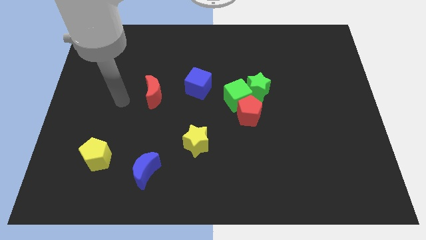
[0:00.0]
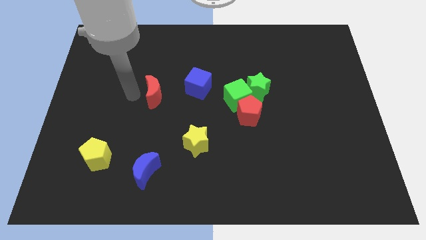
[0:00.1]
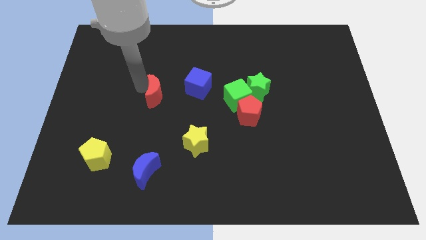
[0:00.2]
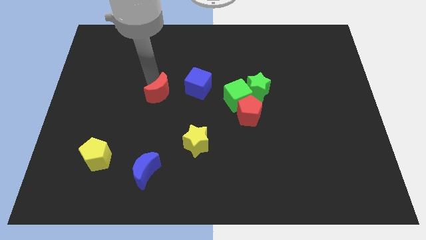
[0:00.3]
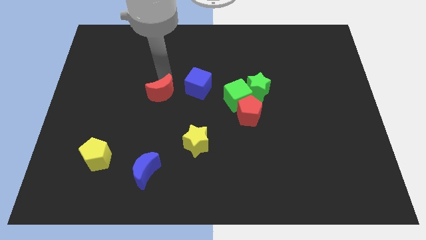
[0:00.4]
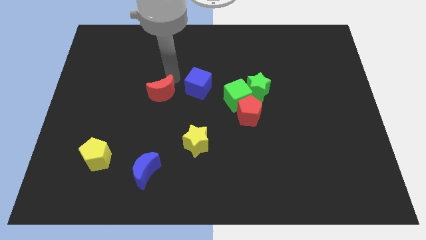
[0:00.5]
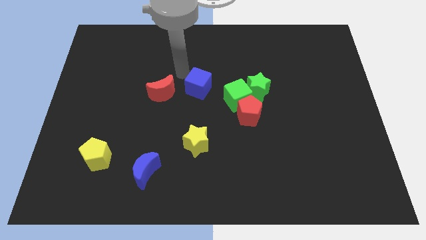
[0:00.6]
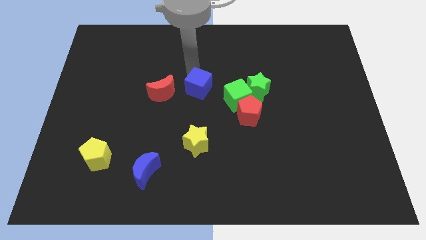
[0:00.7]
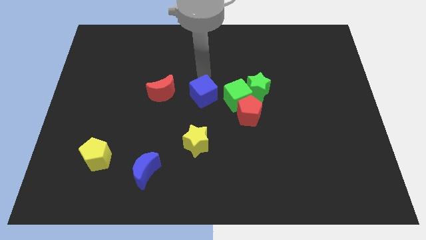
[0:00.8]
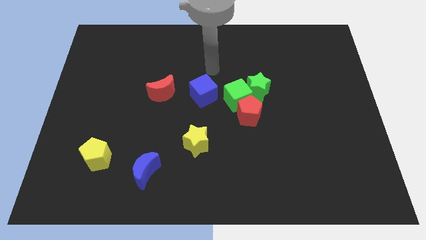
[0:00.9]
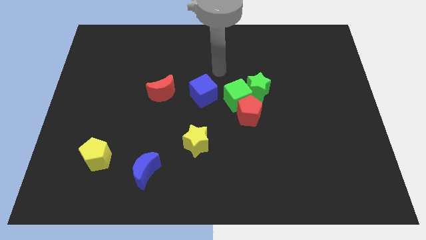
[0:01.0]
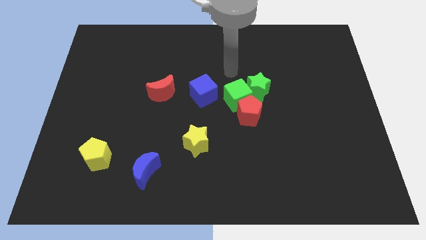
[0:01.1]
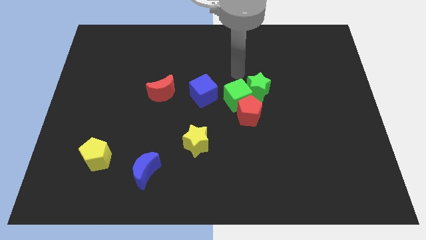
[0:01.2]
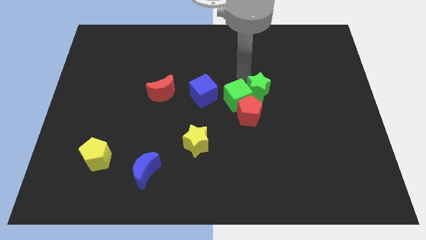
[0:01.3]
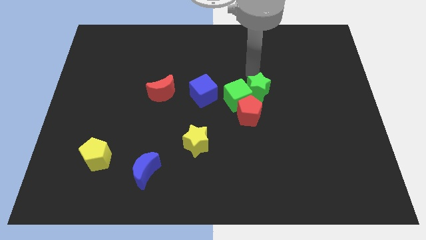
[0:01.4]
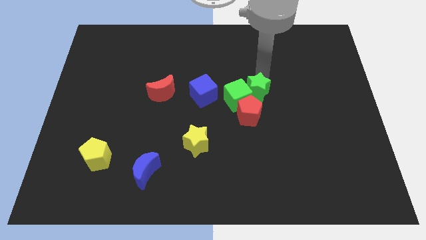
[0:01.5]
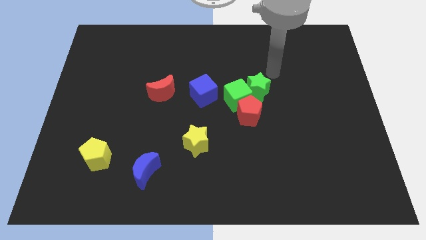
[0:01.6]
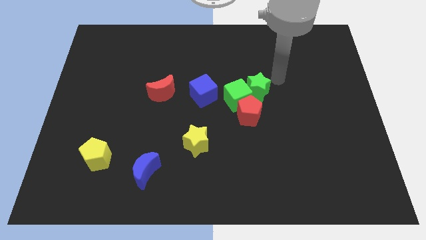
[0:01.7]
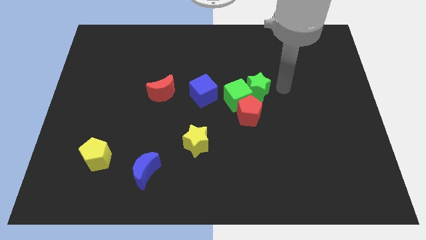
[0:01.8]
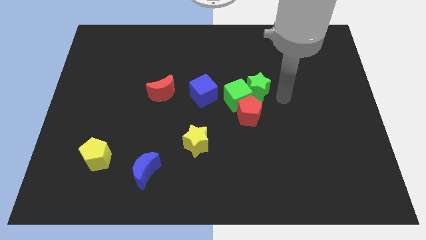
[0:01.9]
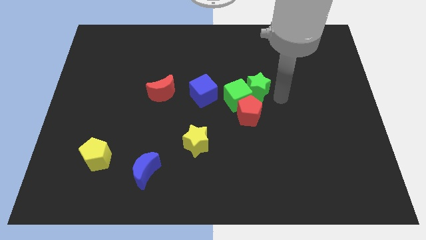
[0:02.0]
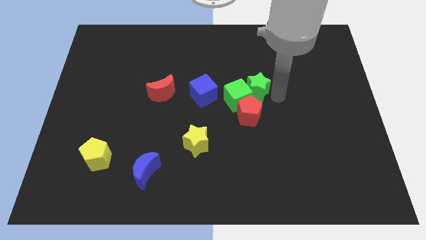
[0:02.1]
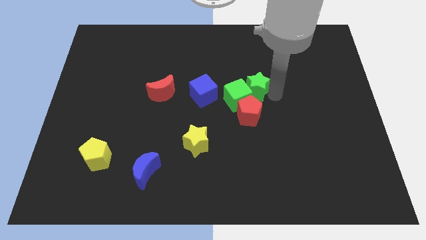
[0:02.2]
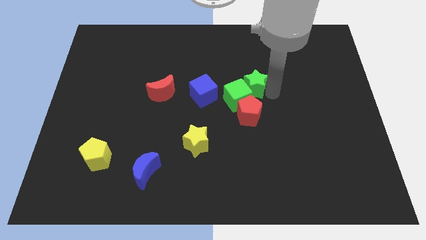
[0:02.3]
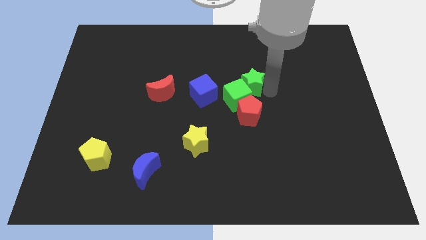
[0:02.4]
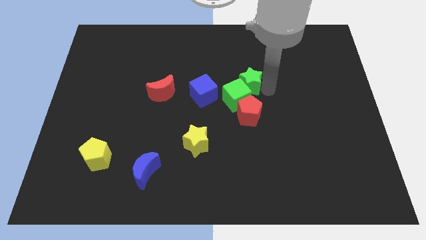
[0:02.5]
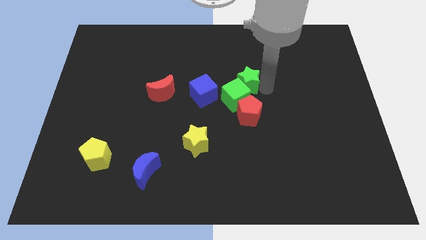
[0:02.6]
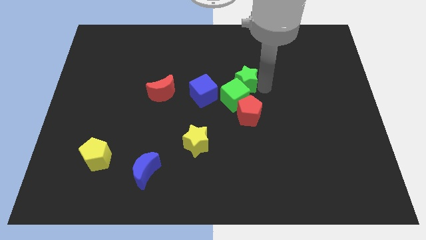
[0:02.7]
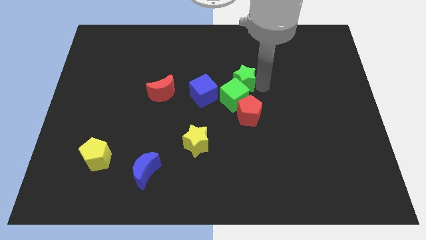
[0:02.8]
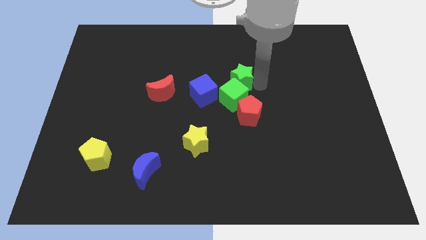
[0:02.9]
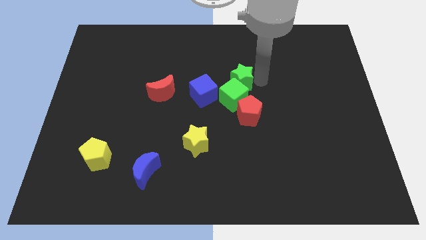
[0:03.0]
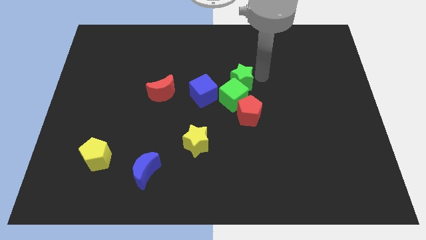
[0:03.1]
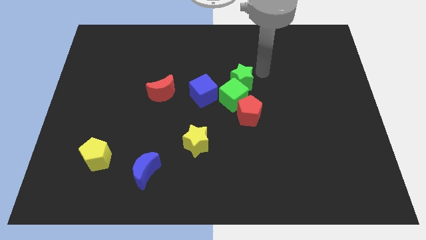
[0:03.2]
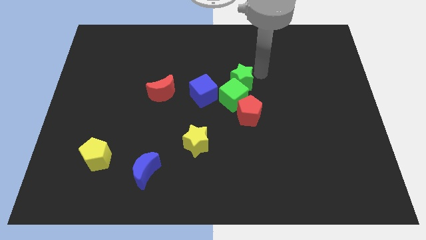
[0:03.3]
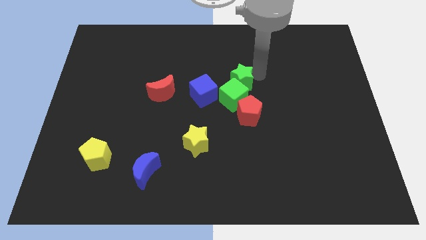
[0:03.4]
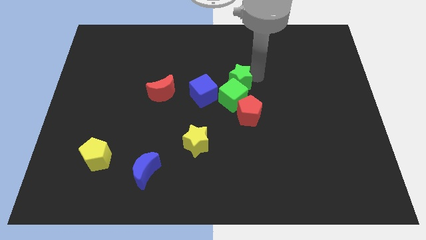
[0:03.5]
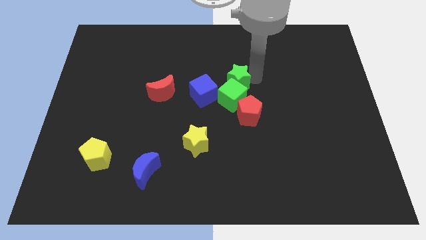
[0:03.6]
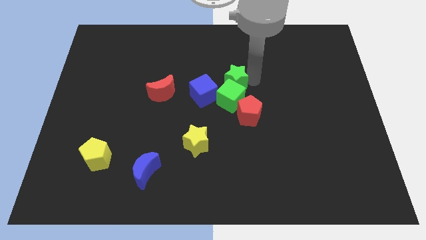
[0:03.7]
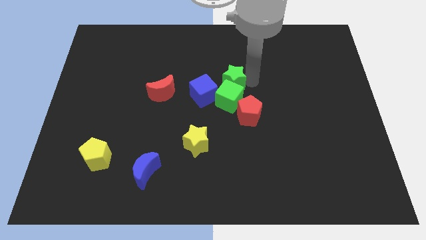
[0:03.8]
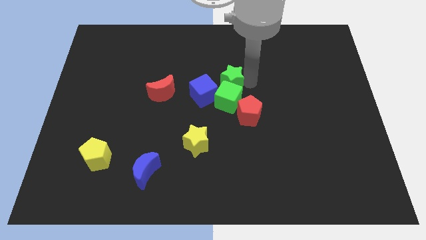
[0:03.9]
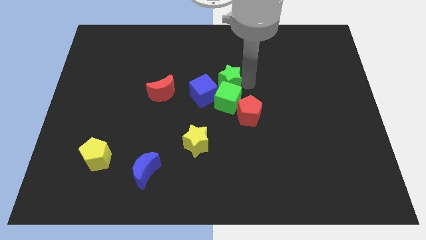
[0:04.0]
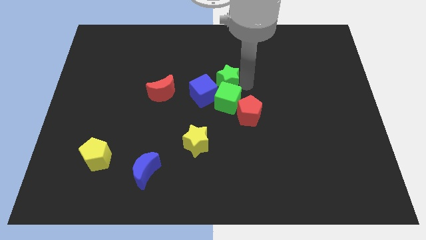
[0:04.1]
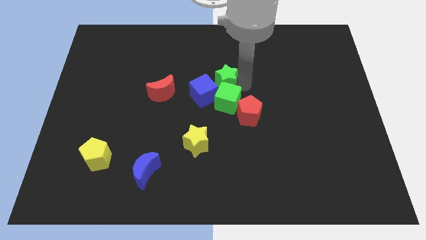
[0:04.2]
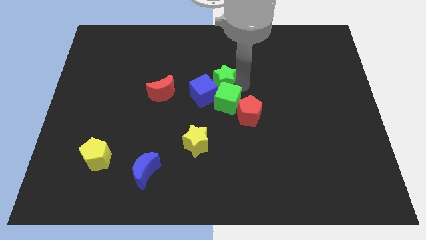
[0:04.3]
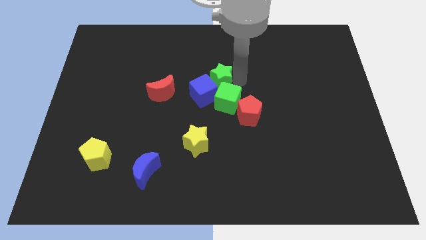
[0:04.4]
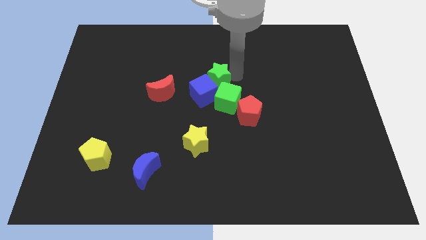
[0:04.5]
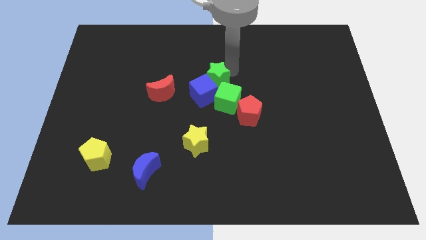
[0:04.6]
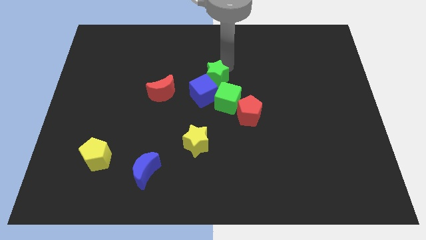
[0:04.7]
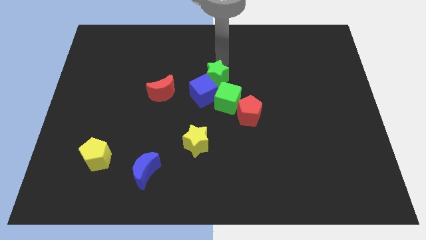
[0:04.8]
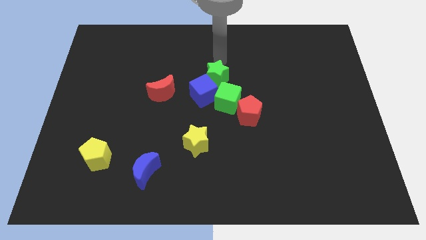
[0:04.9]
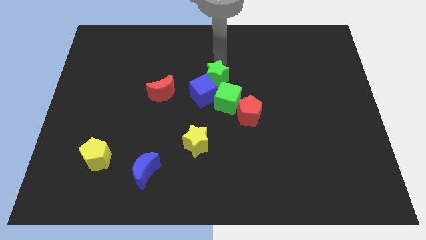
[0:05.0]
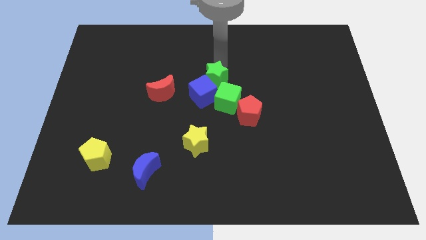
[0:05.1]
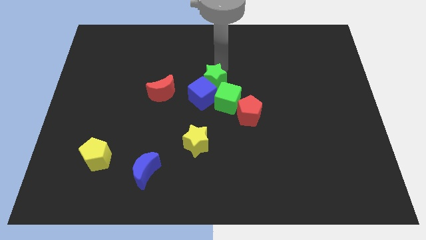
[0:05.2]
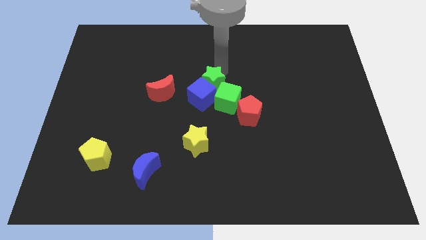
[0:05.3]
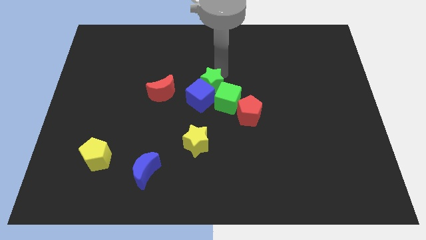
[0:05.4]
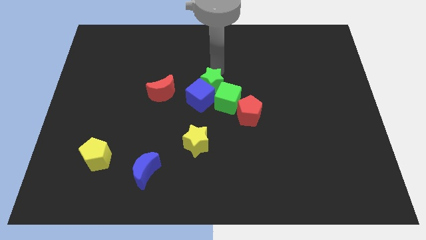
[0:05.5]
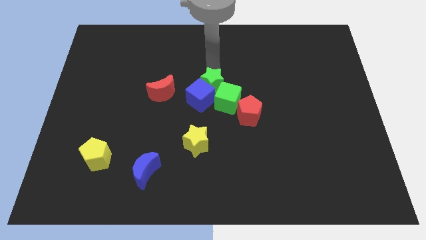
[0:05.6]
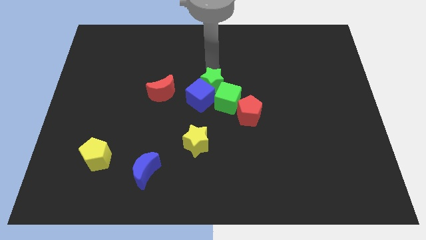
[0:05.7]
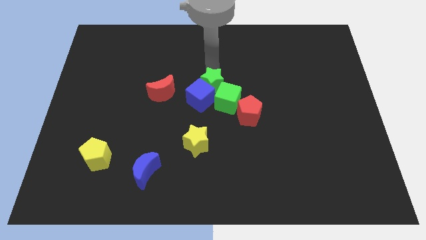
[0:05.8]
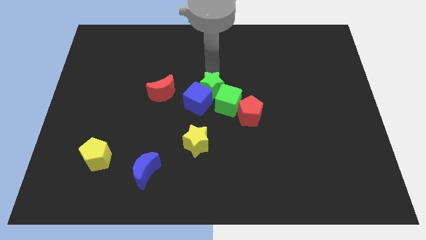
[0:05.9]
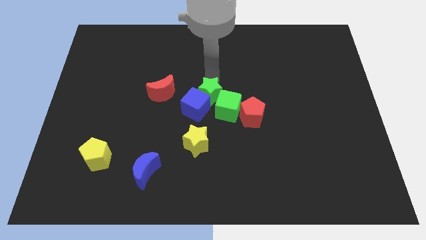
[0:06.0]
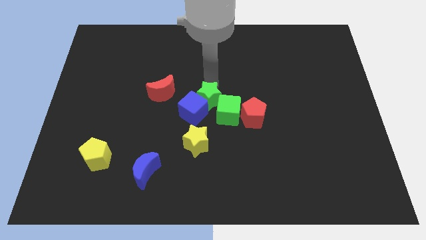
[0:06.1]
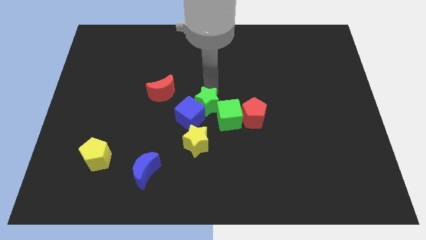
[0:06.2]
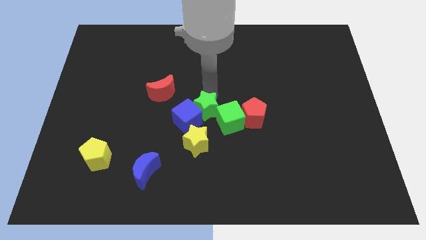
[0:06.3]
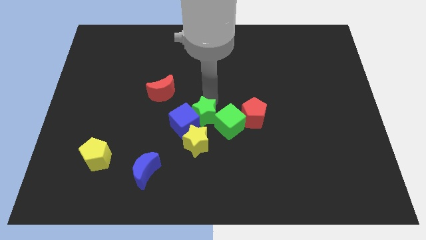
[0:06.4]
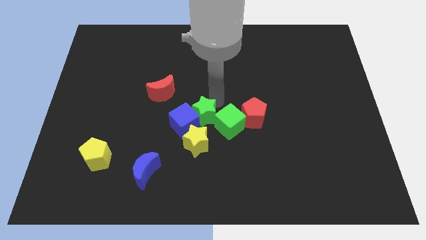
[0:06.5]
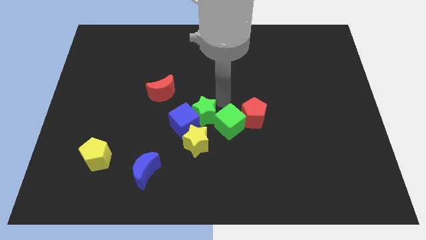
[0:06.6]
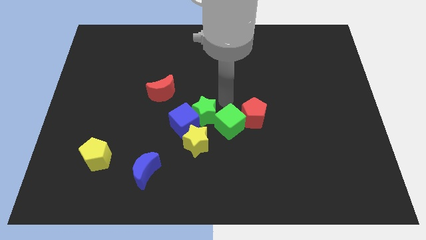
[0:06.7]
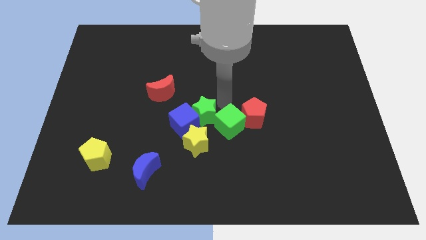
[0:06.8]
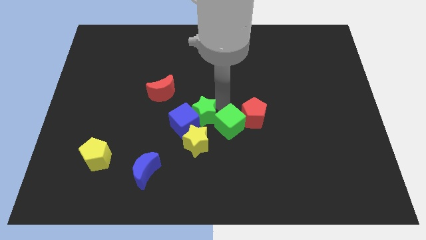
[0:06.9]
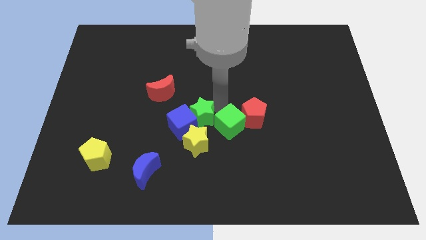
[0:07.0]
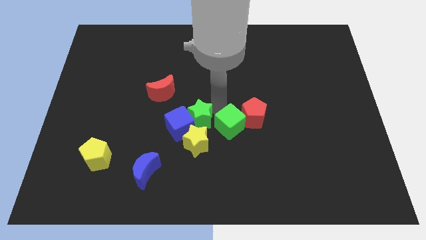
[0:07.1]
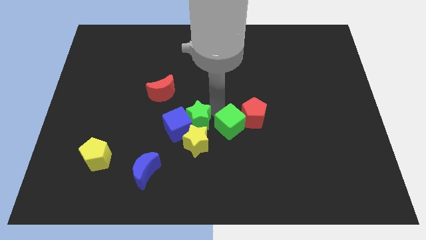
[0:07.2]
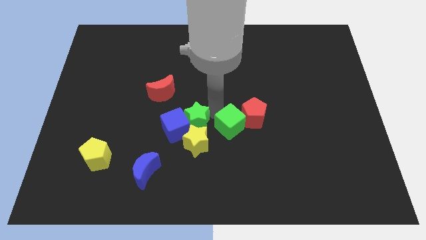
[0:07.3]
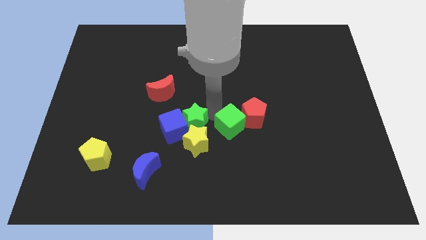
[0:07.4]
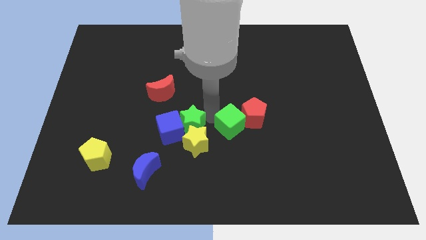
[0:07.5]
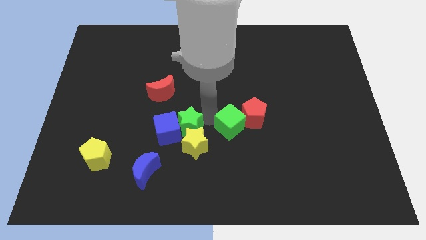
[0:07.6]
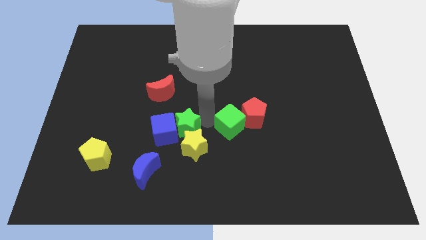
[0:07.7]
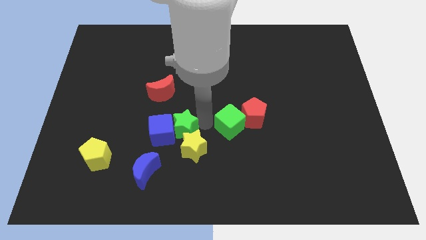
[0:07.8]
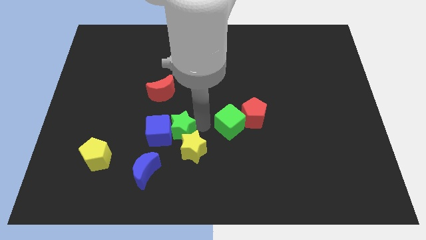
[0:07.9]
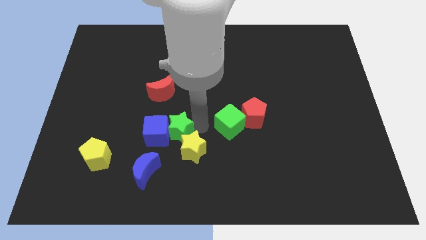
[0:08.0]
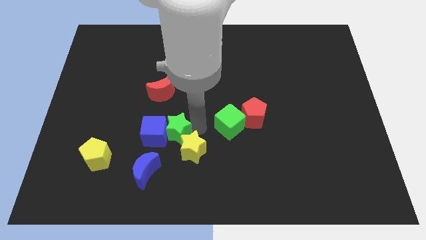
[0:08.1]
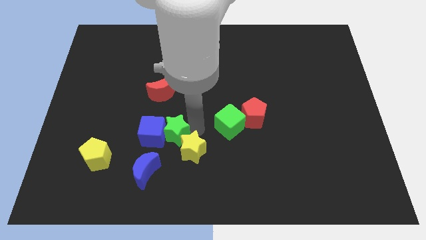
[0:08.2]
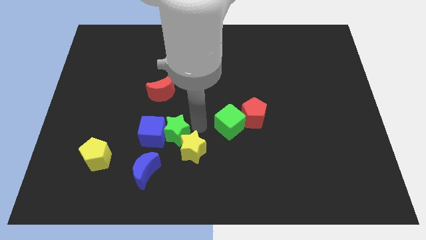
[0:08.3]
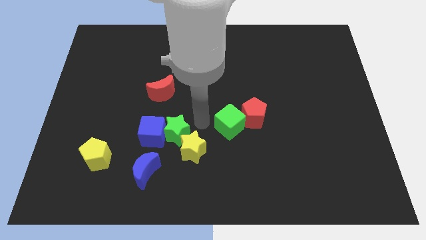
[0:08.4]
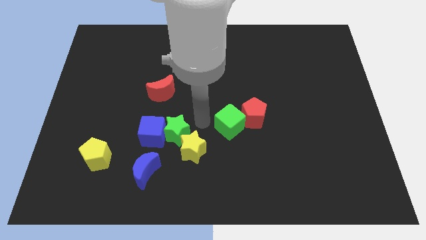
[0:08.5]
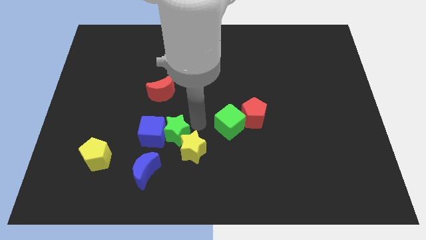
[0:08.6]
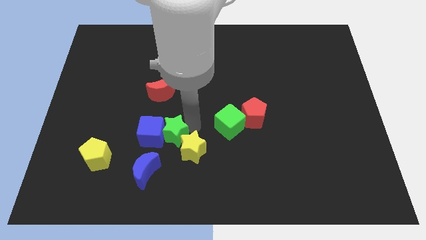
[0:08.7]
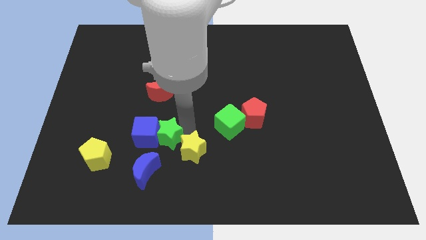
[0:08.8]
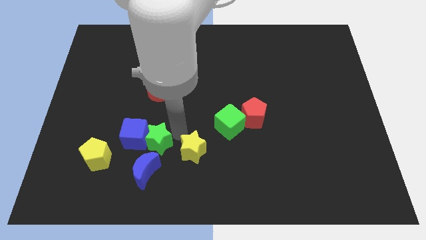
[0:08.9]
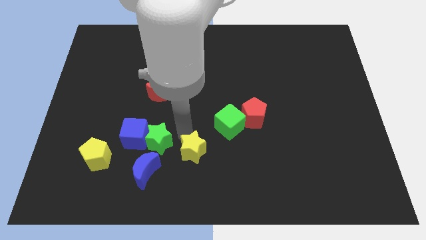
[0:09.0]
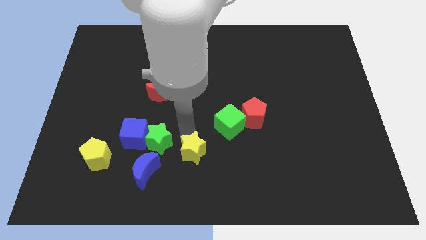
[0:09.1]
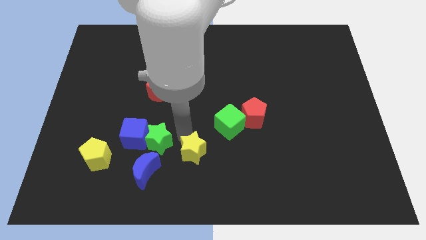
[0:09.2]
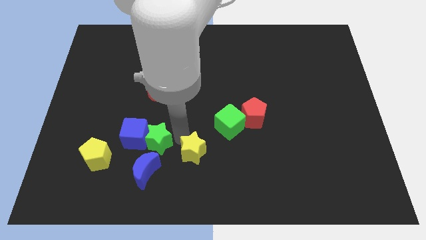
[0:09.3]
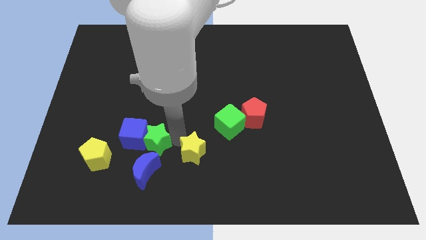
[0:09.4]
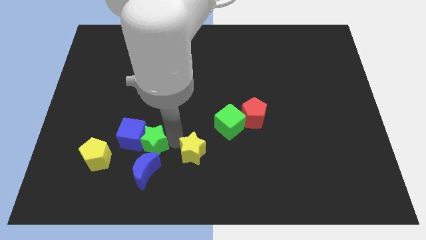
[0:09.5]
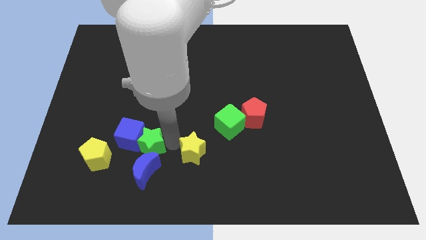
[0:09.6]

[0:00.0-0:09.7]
move the green star to the top left of the blue moon
